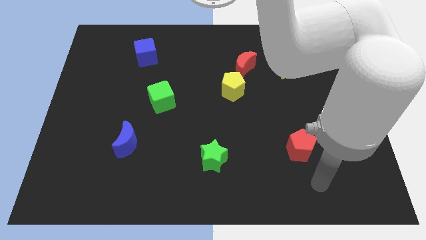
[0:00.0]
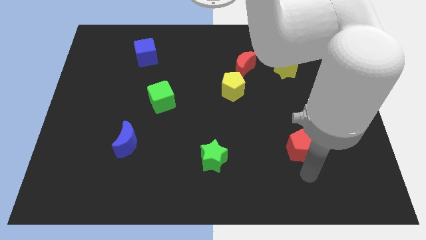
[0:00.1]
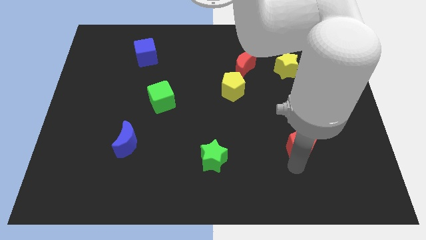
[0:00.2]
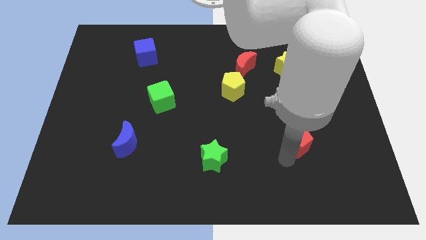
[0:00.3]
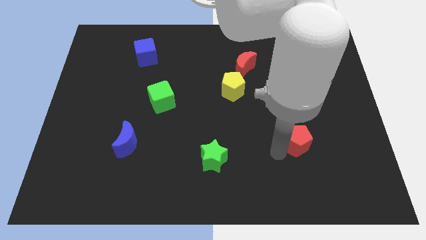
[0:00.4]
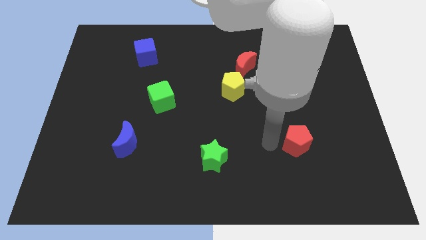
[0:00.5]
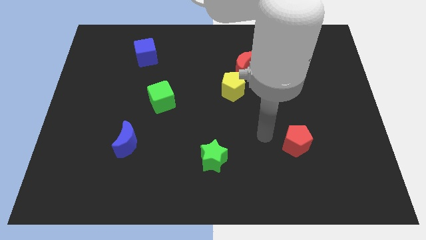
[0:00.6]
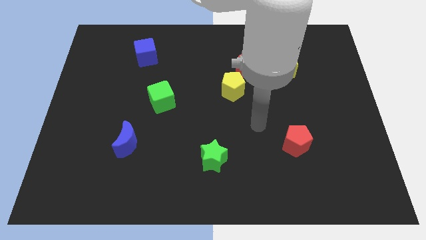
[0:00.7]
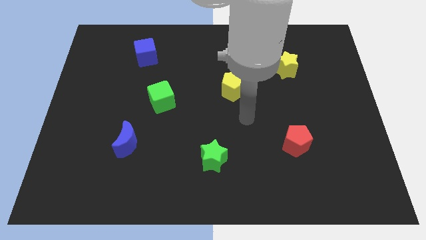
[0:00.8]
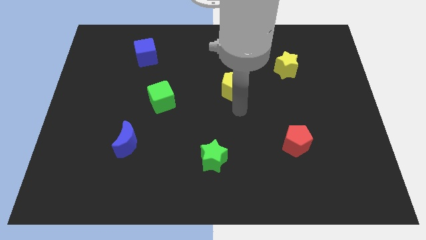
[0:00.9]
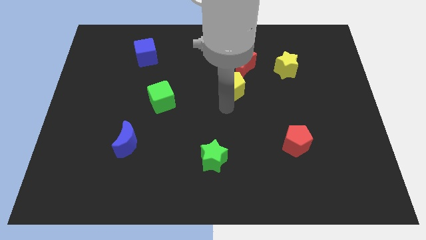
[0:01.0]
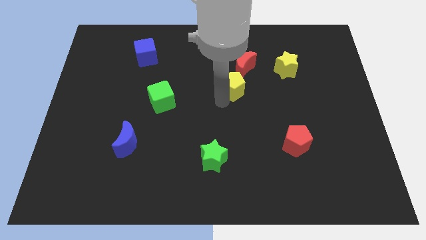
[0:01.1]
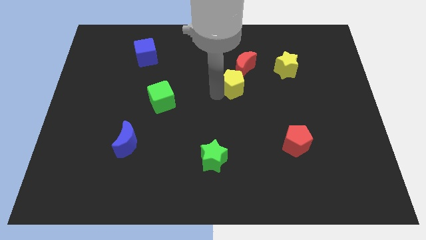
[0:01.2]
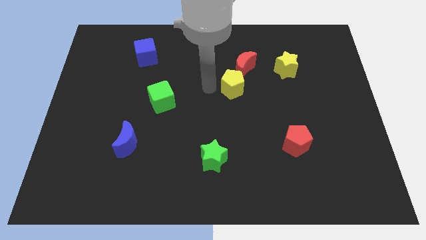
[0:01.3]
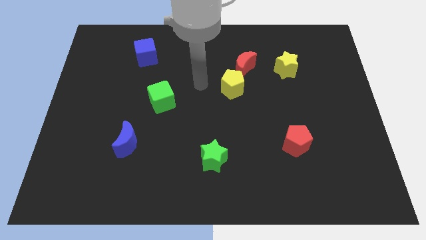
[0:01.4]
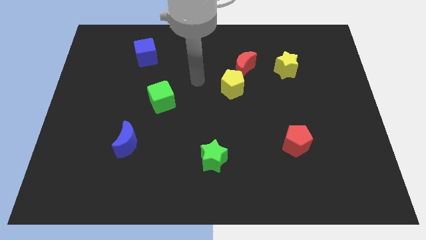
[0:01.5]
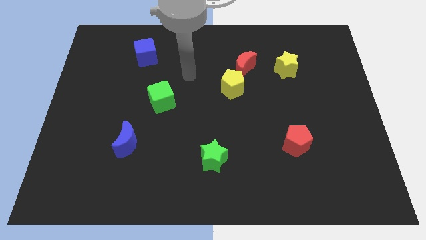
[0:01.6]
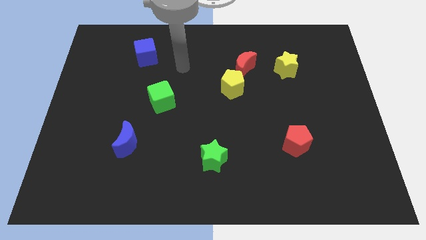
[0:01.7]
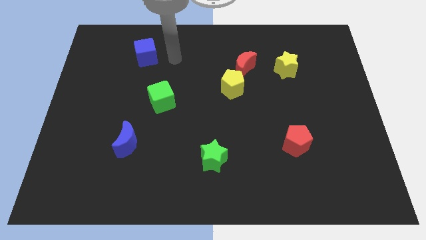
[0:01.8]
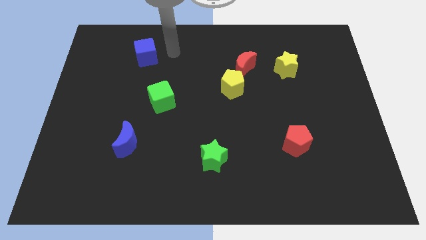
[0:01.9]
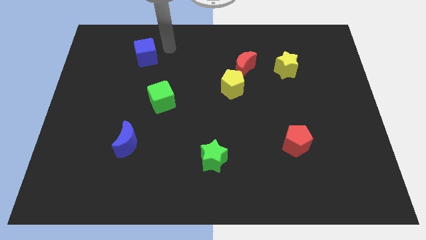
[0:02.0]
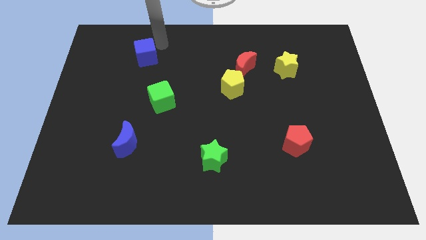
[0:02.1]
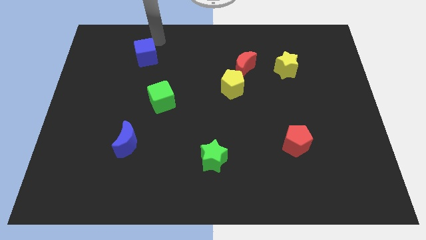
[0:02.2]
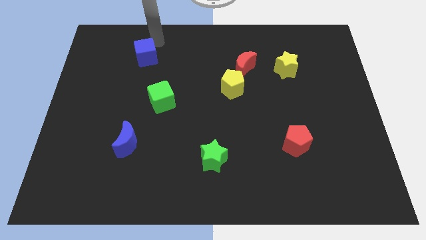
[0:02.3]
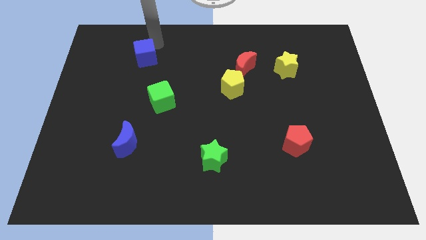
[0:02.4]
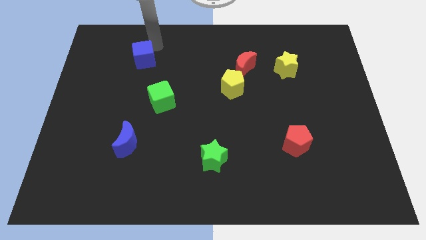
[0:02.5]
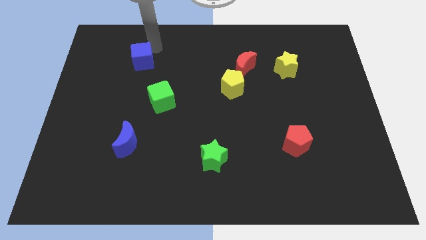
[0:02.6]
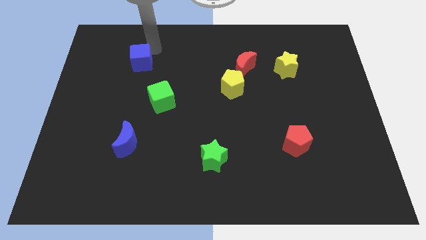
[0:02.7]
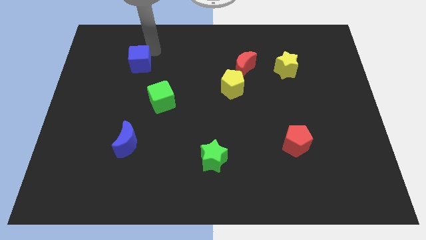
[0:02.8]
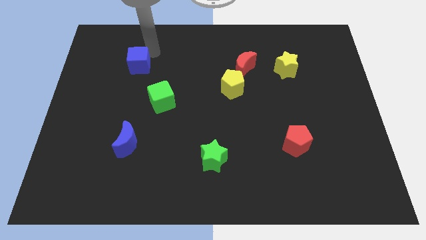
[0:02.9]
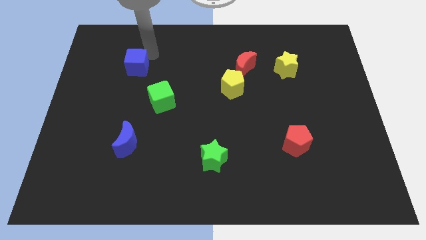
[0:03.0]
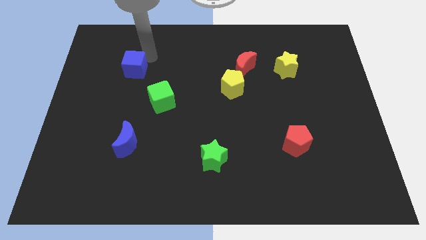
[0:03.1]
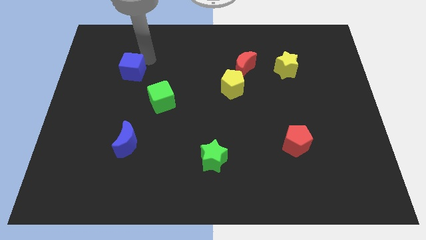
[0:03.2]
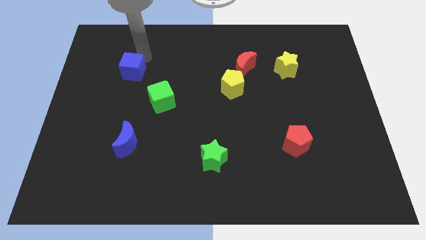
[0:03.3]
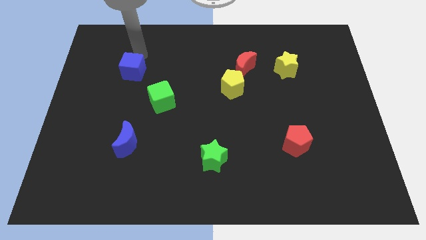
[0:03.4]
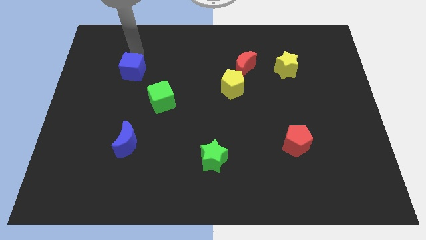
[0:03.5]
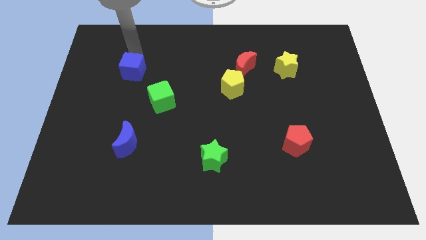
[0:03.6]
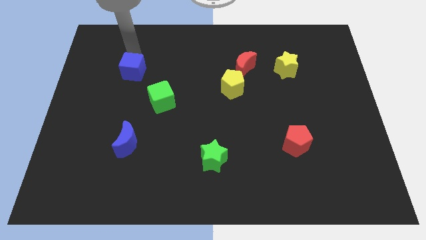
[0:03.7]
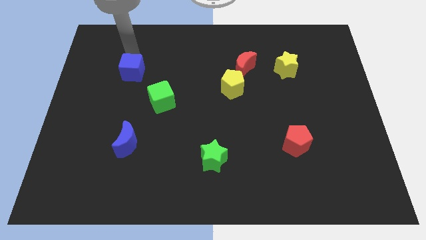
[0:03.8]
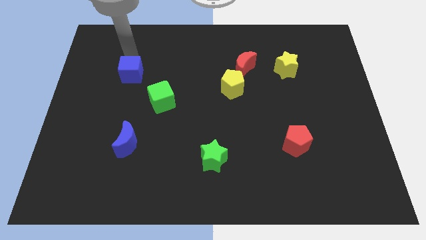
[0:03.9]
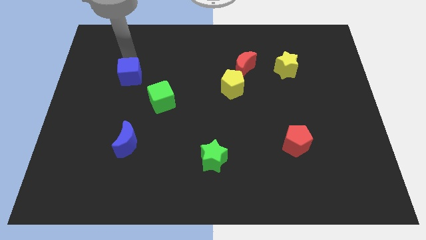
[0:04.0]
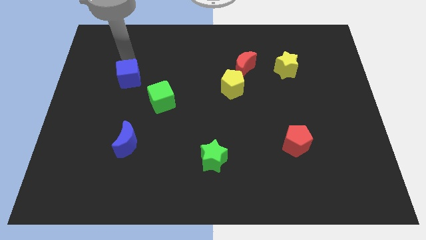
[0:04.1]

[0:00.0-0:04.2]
slide the blue cube a bit downwards

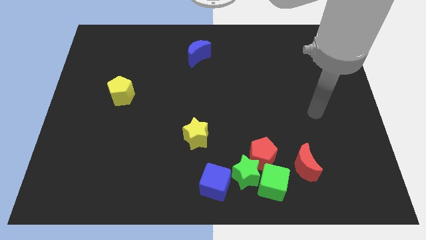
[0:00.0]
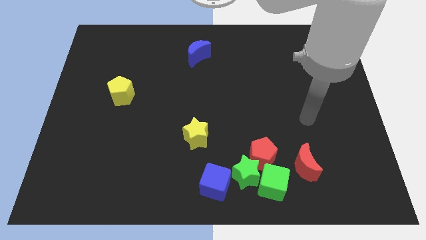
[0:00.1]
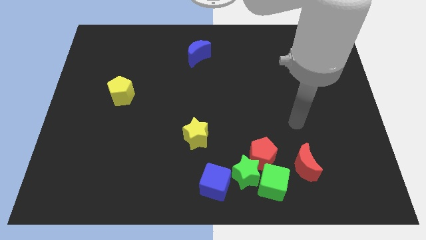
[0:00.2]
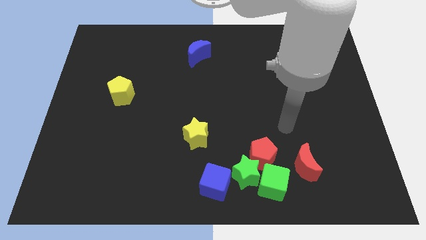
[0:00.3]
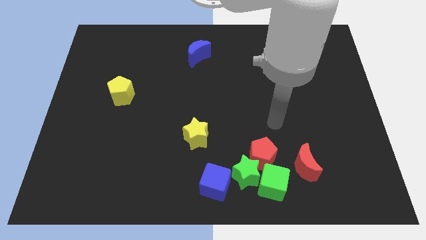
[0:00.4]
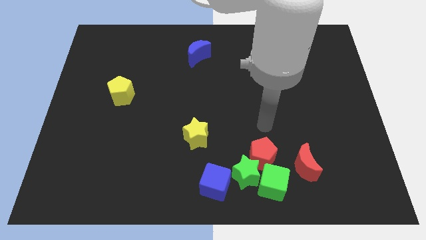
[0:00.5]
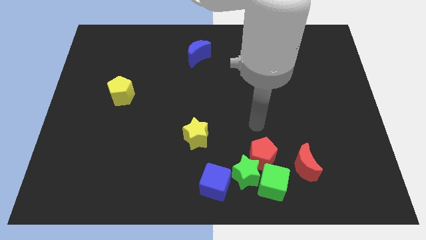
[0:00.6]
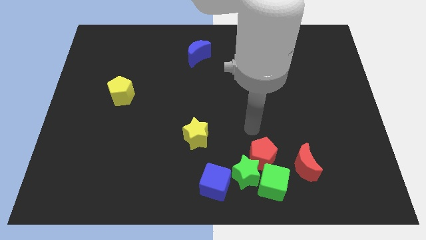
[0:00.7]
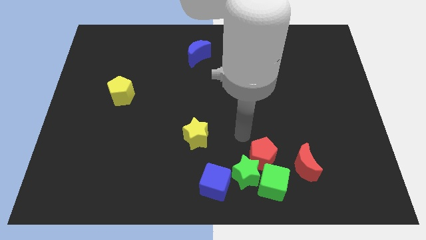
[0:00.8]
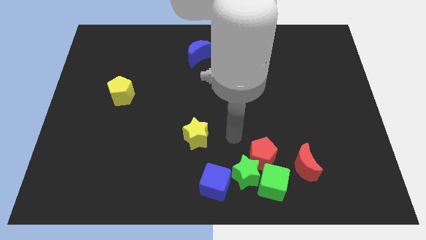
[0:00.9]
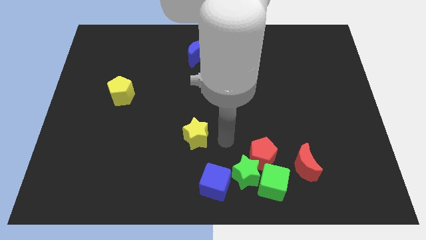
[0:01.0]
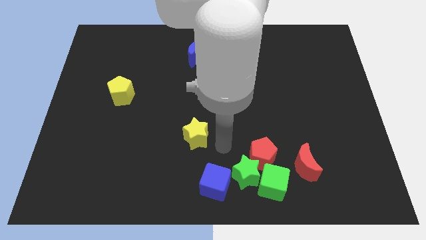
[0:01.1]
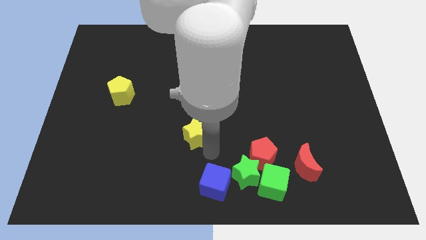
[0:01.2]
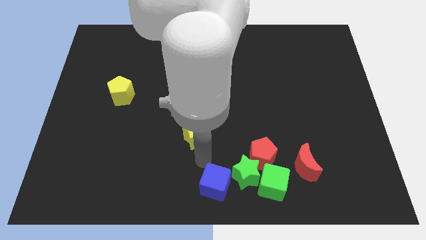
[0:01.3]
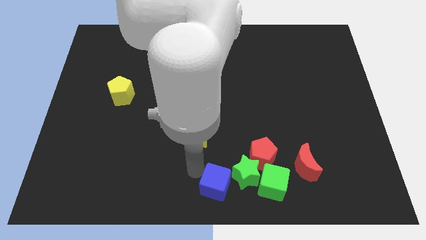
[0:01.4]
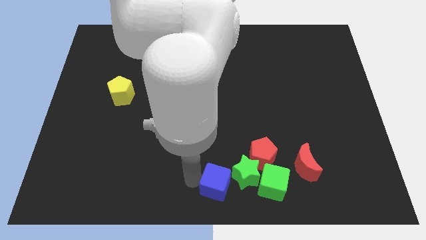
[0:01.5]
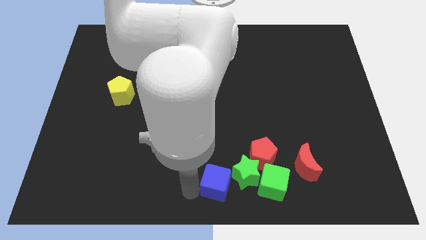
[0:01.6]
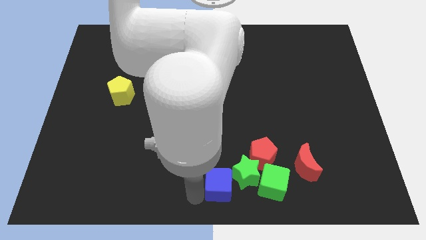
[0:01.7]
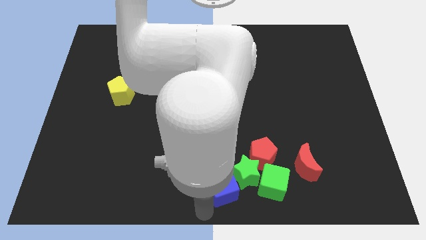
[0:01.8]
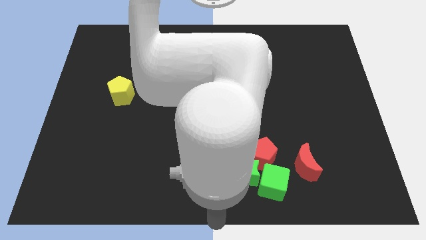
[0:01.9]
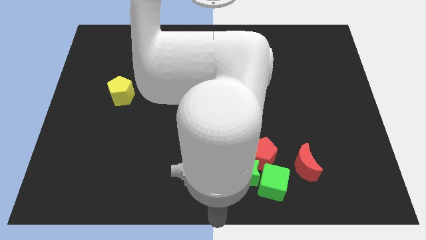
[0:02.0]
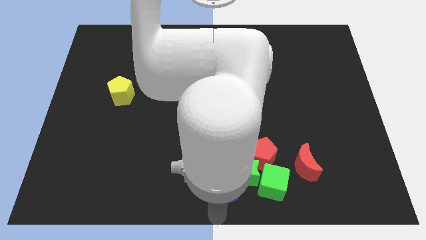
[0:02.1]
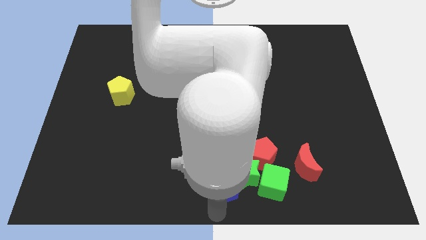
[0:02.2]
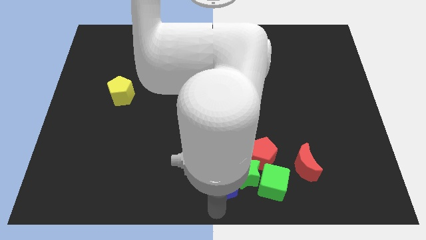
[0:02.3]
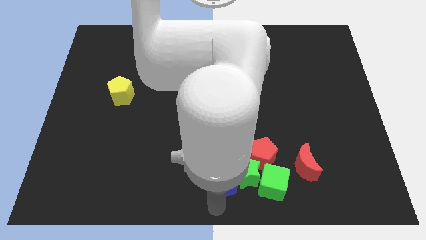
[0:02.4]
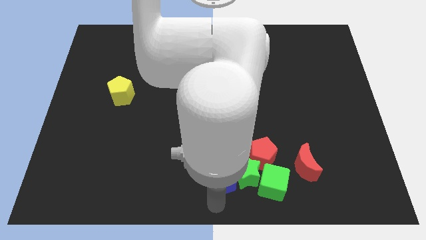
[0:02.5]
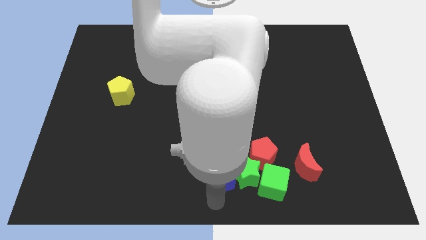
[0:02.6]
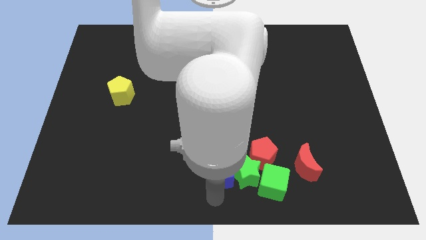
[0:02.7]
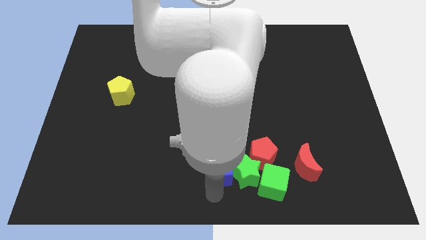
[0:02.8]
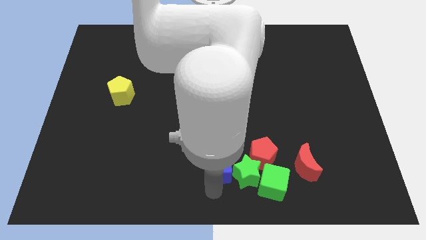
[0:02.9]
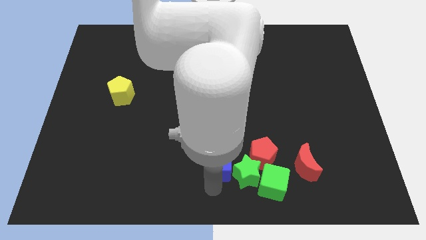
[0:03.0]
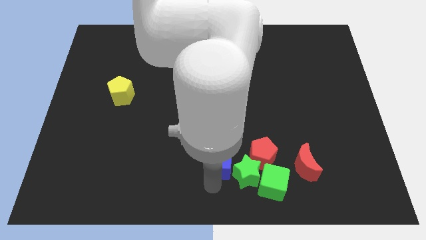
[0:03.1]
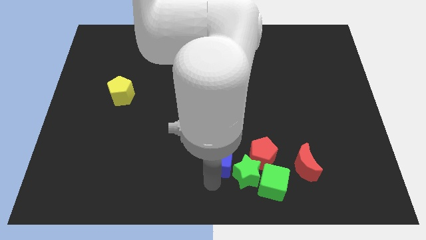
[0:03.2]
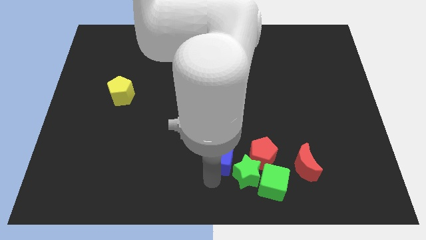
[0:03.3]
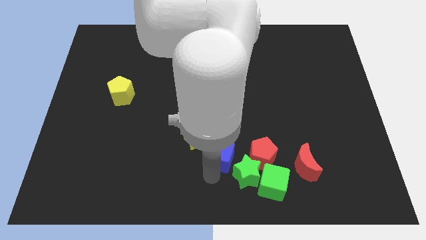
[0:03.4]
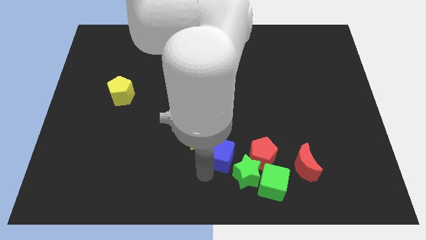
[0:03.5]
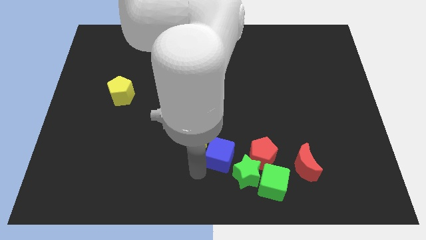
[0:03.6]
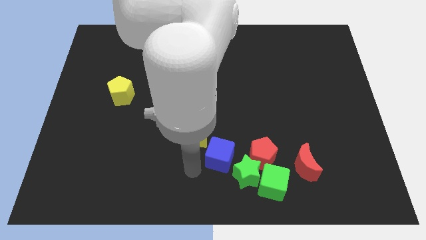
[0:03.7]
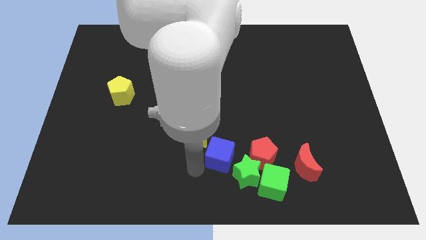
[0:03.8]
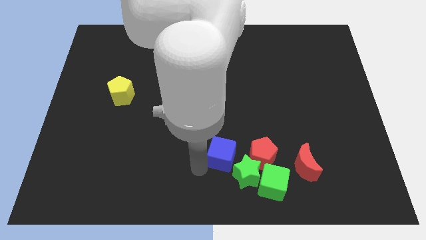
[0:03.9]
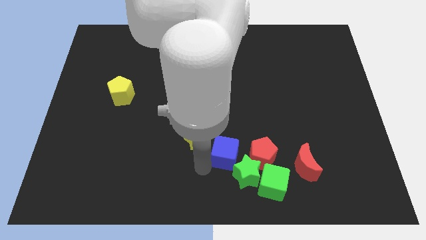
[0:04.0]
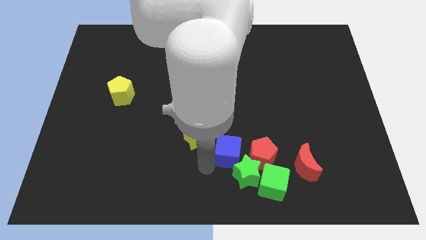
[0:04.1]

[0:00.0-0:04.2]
move the blue cube diagonally up and to the right somewhat
